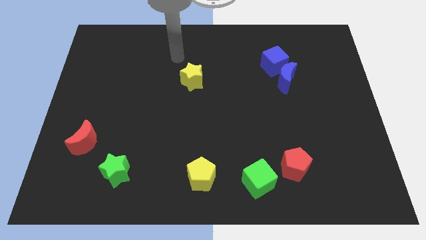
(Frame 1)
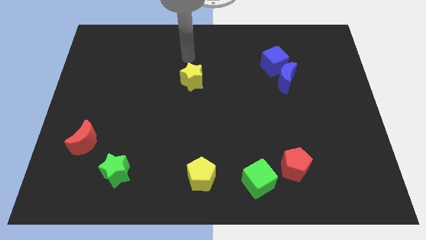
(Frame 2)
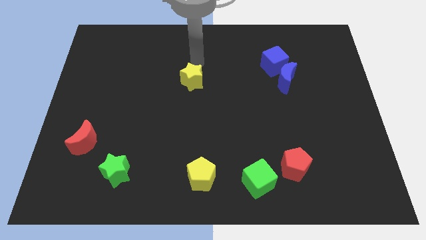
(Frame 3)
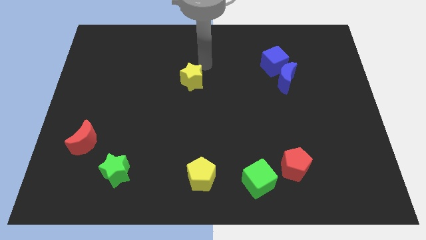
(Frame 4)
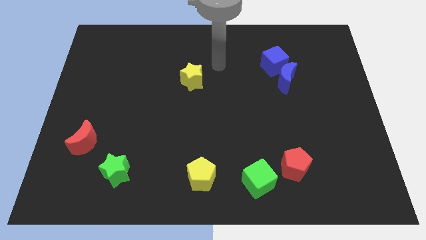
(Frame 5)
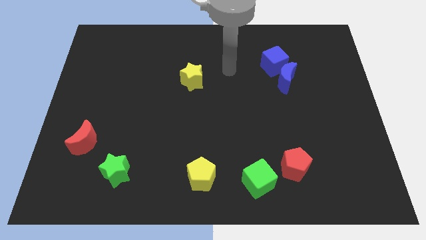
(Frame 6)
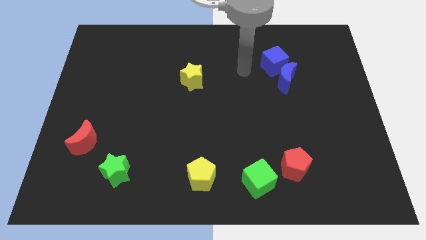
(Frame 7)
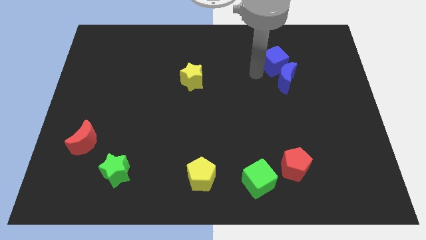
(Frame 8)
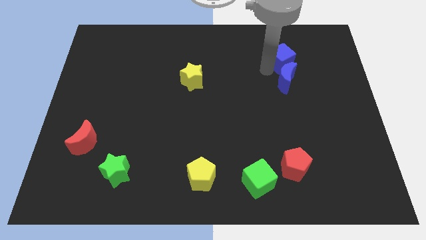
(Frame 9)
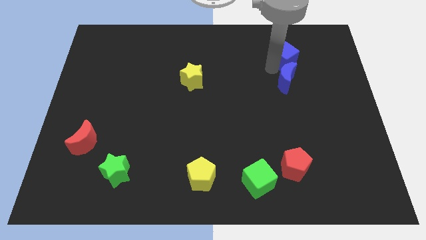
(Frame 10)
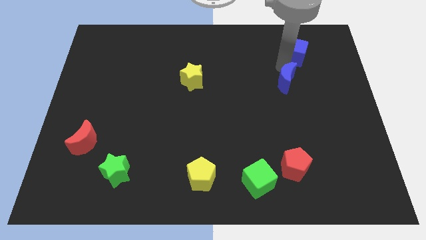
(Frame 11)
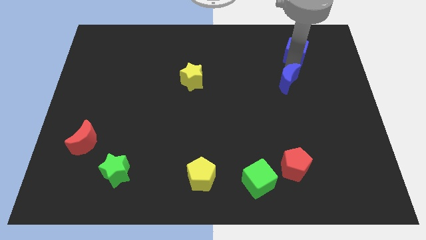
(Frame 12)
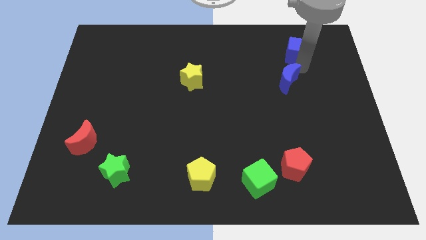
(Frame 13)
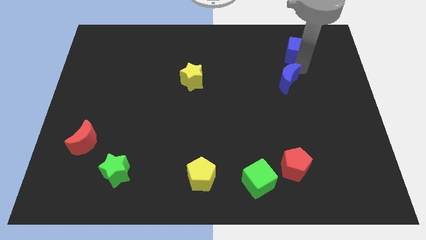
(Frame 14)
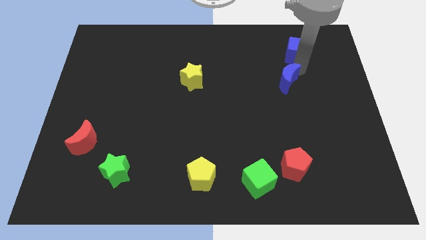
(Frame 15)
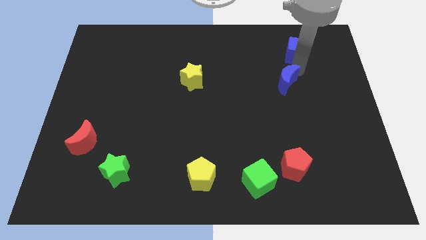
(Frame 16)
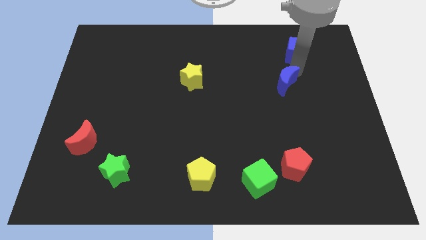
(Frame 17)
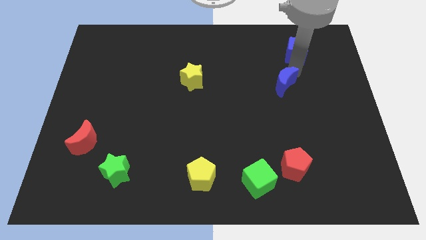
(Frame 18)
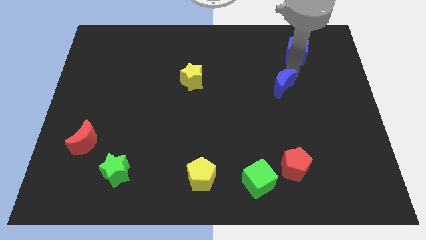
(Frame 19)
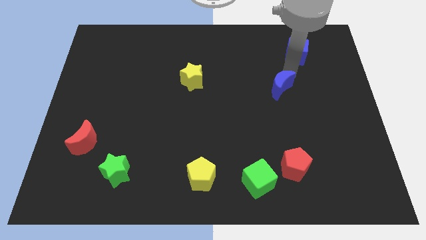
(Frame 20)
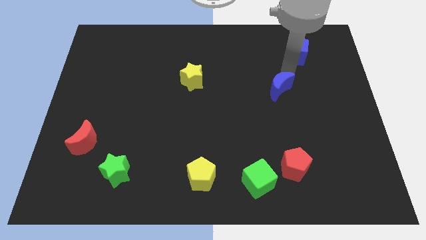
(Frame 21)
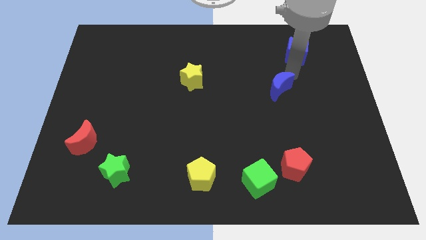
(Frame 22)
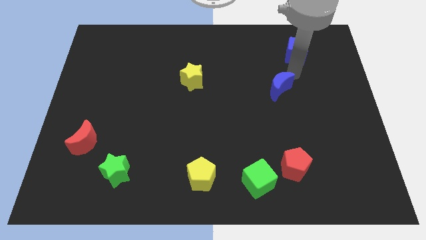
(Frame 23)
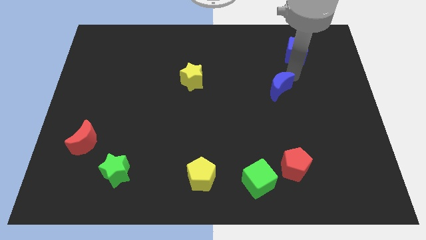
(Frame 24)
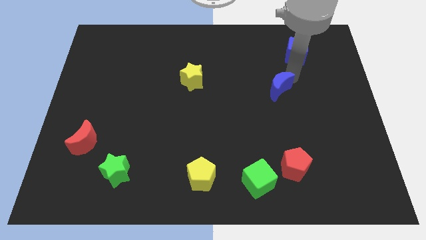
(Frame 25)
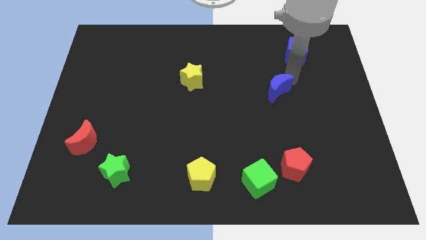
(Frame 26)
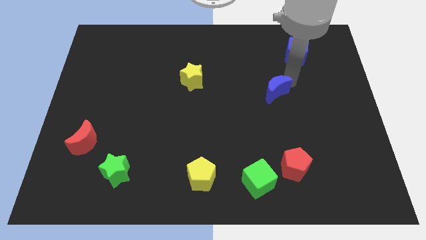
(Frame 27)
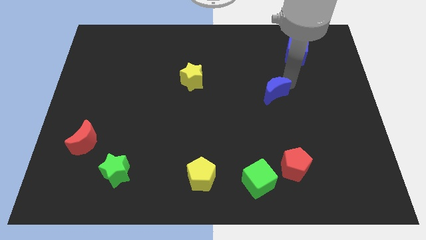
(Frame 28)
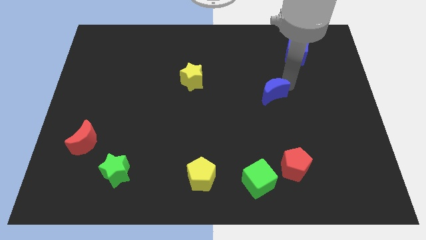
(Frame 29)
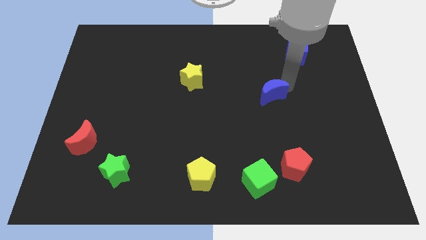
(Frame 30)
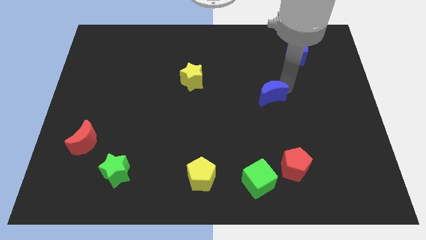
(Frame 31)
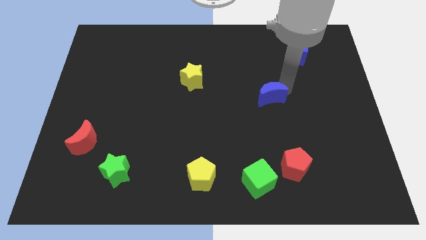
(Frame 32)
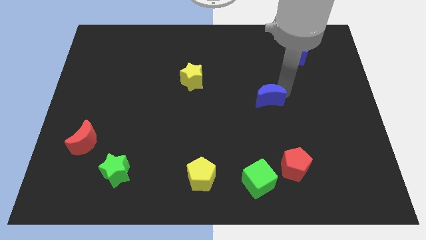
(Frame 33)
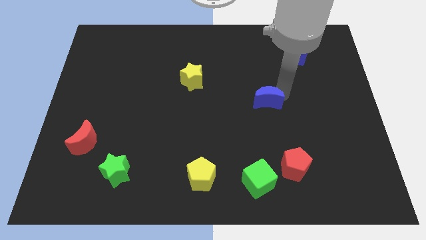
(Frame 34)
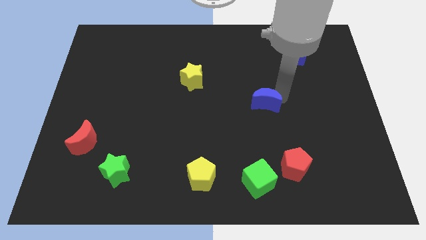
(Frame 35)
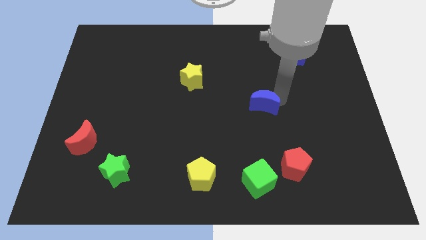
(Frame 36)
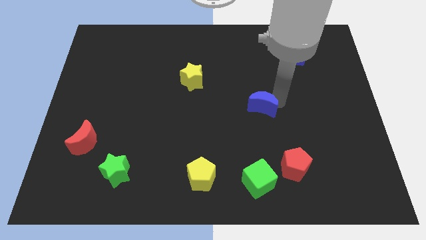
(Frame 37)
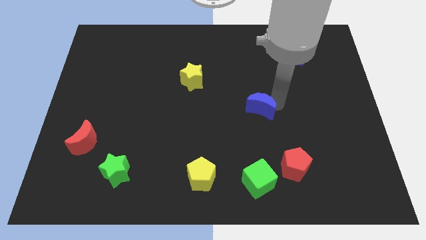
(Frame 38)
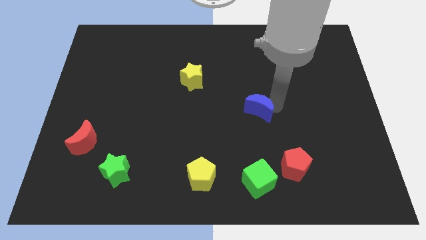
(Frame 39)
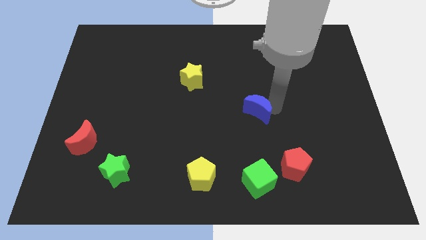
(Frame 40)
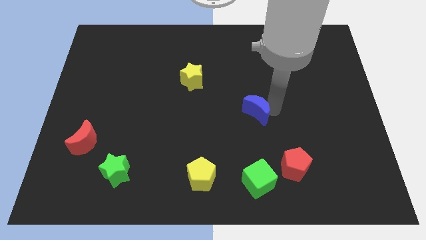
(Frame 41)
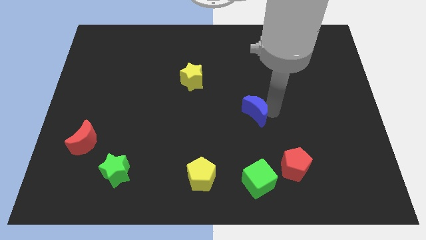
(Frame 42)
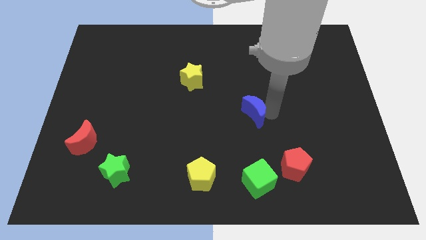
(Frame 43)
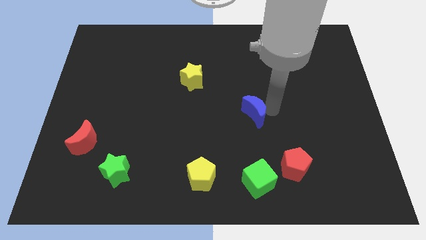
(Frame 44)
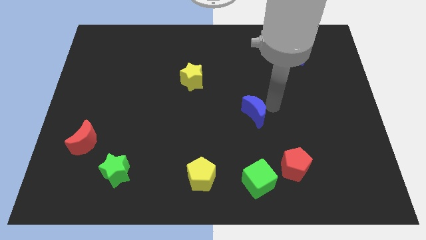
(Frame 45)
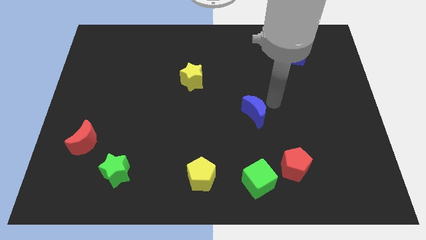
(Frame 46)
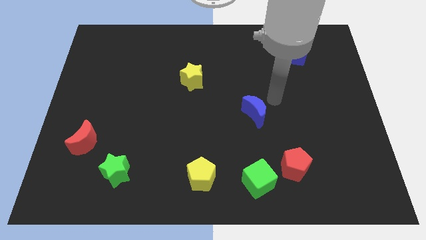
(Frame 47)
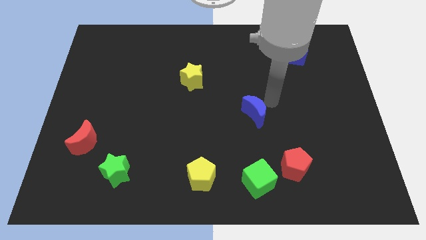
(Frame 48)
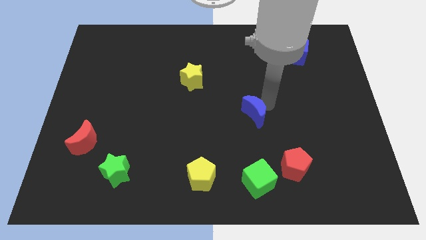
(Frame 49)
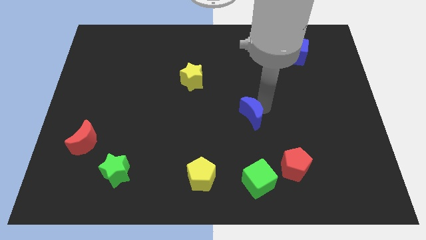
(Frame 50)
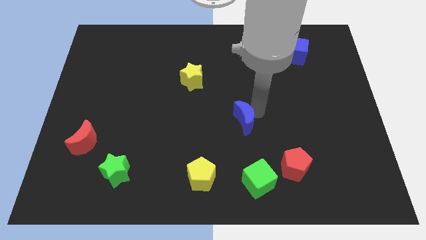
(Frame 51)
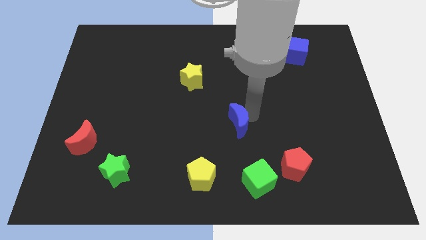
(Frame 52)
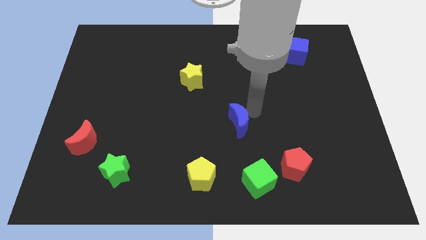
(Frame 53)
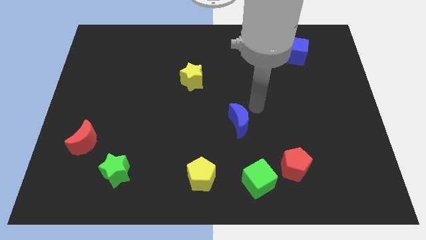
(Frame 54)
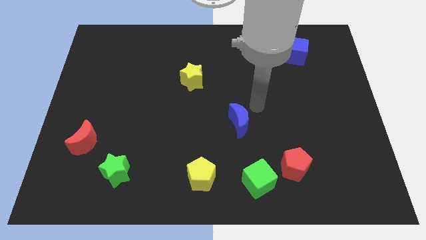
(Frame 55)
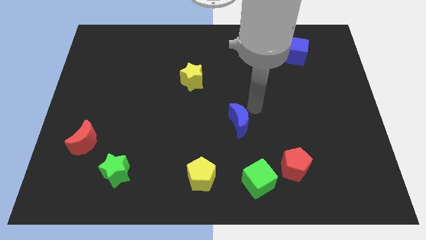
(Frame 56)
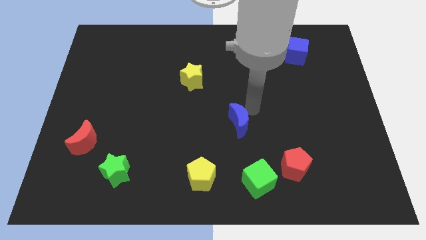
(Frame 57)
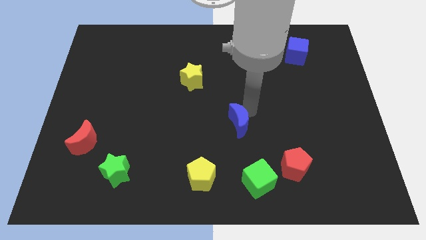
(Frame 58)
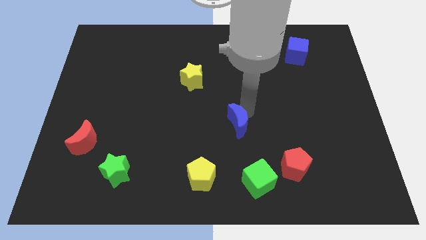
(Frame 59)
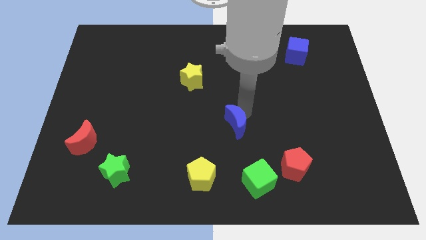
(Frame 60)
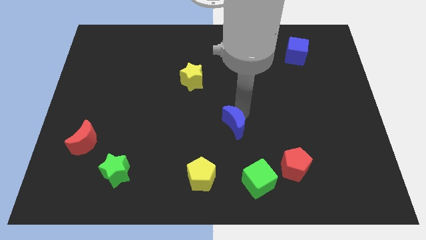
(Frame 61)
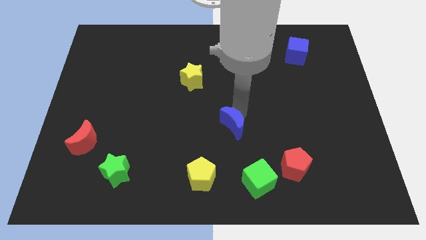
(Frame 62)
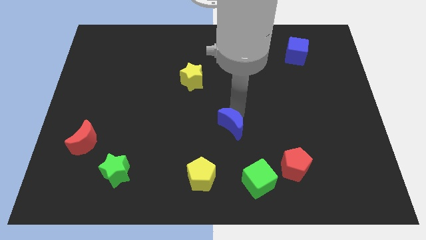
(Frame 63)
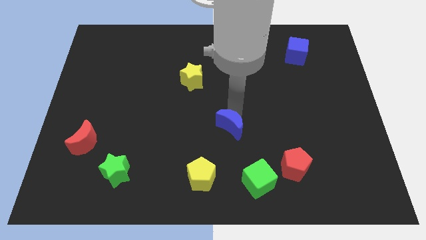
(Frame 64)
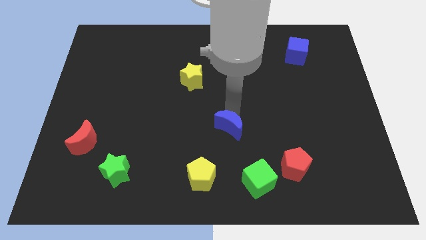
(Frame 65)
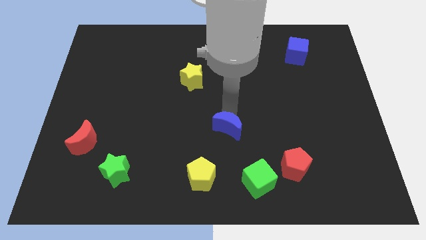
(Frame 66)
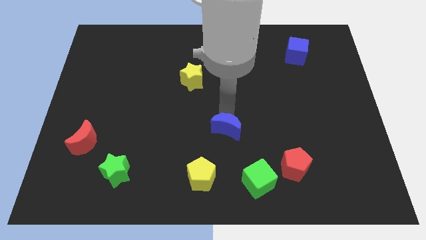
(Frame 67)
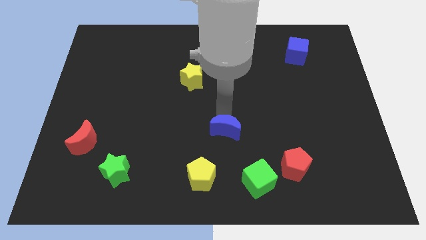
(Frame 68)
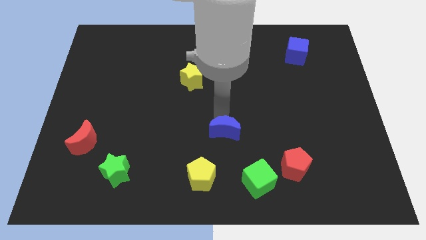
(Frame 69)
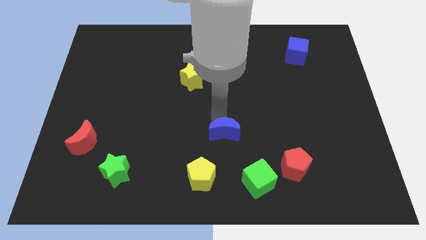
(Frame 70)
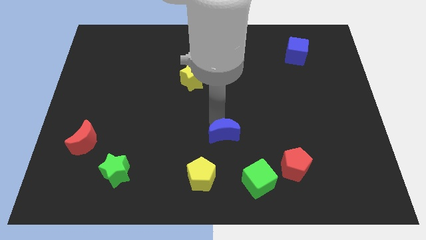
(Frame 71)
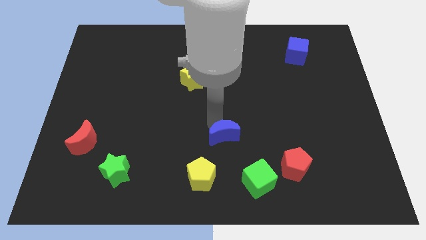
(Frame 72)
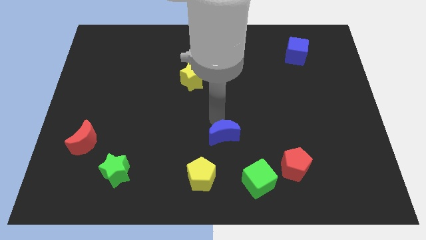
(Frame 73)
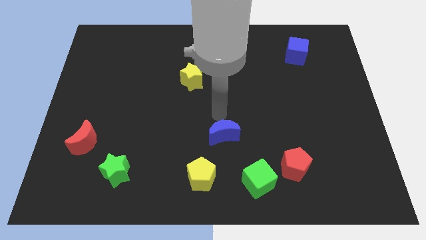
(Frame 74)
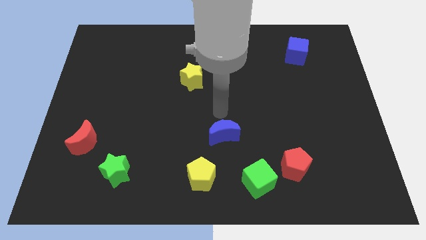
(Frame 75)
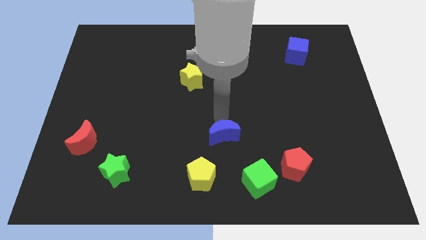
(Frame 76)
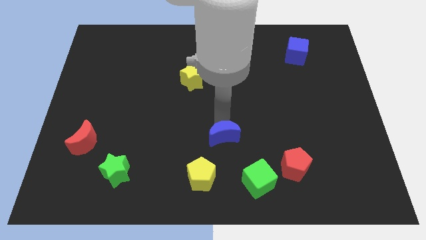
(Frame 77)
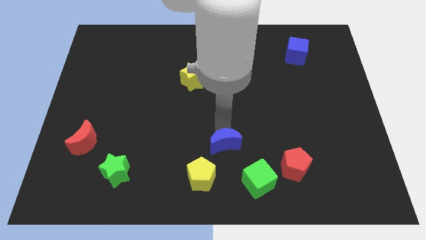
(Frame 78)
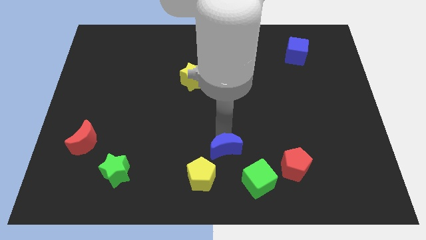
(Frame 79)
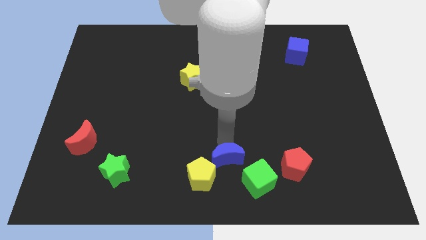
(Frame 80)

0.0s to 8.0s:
slide the blue moon to the bottom side
